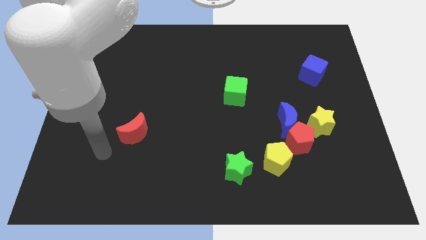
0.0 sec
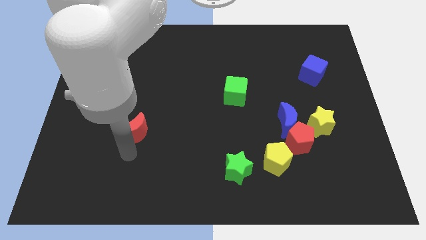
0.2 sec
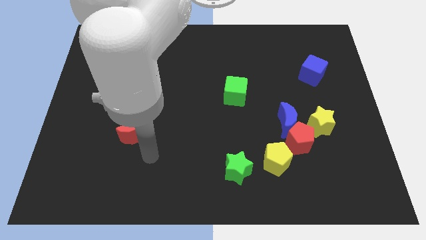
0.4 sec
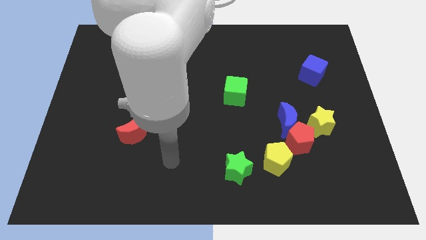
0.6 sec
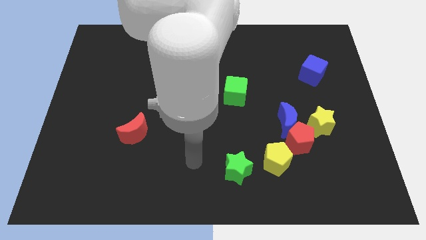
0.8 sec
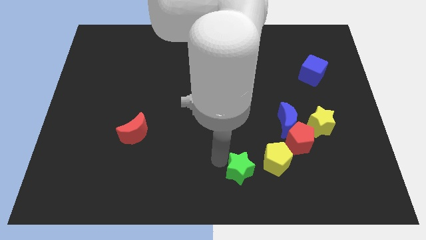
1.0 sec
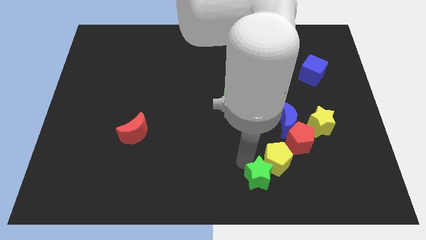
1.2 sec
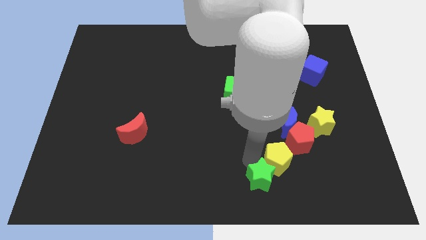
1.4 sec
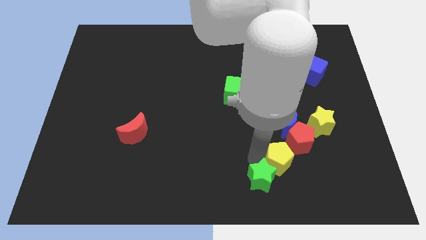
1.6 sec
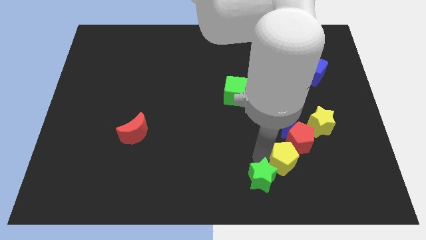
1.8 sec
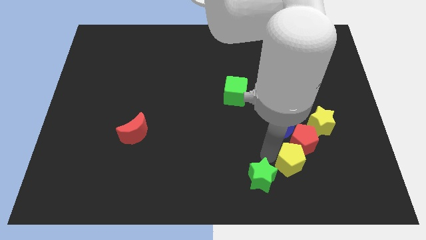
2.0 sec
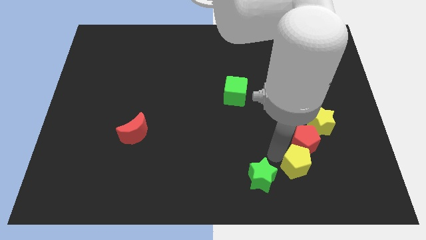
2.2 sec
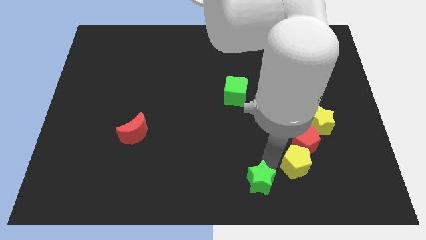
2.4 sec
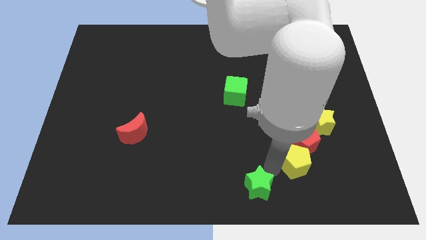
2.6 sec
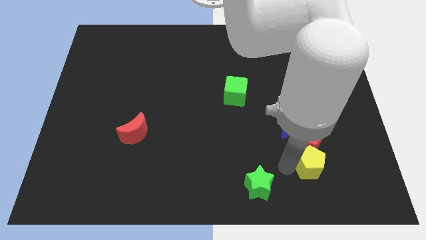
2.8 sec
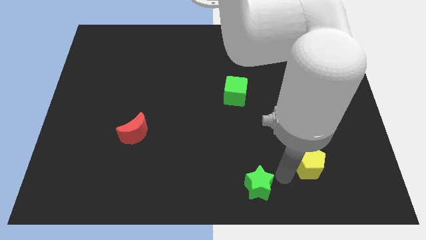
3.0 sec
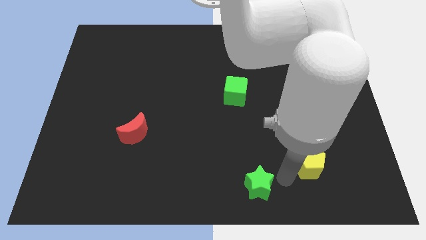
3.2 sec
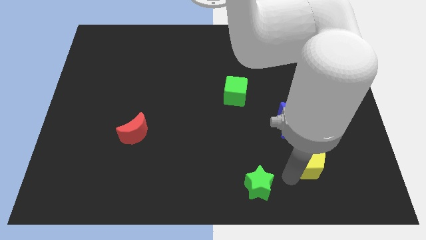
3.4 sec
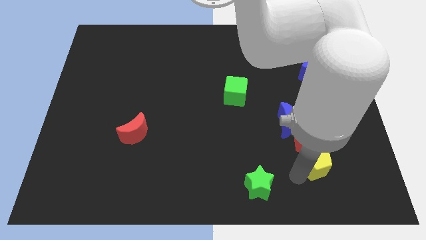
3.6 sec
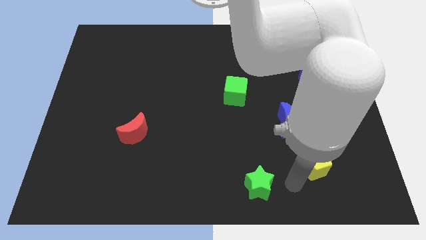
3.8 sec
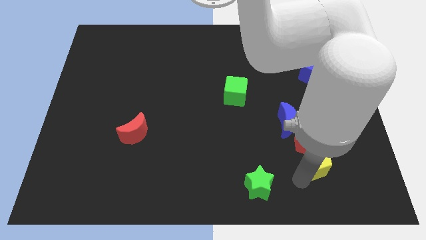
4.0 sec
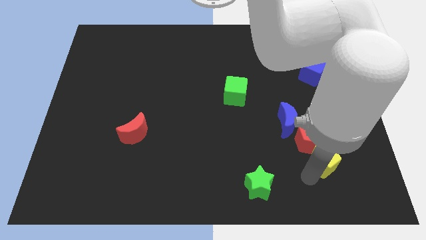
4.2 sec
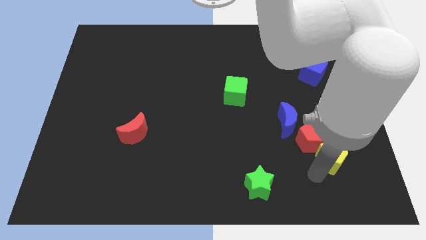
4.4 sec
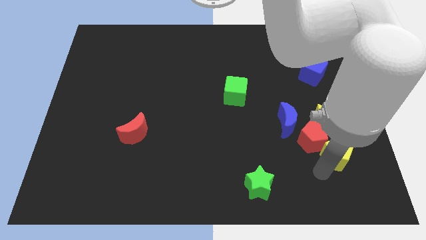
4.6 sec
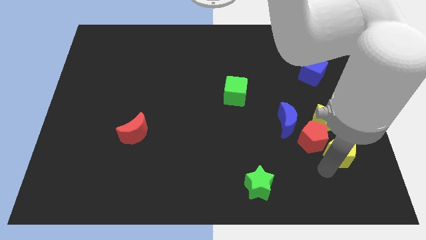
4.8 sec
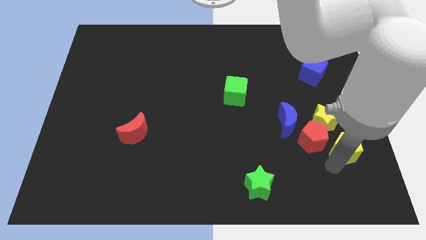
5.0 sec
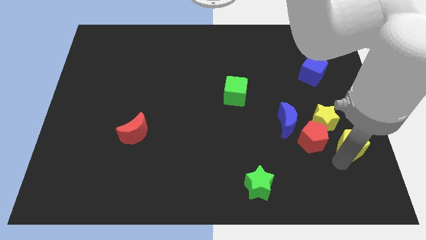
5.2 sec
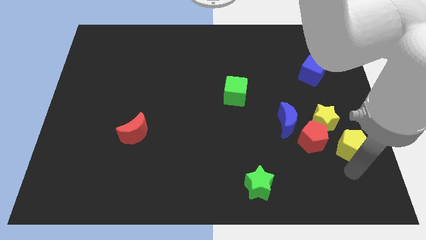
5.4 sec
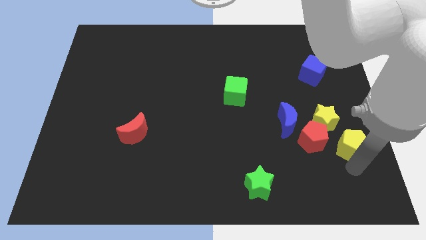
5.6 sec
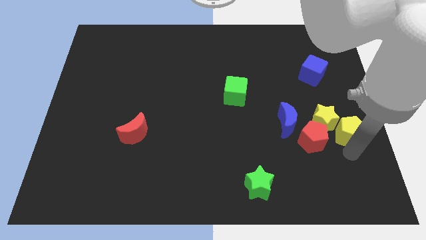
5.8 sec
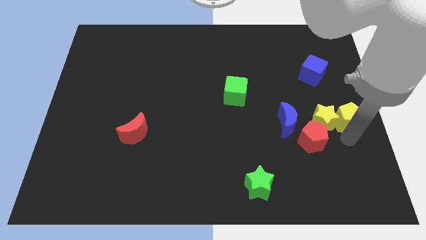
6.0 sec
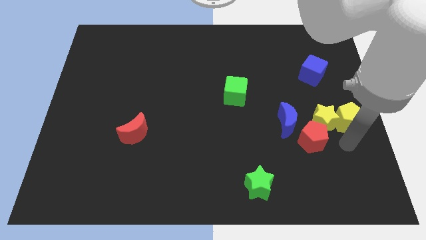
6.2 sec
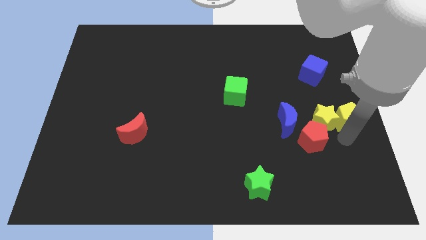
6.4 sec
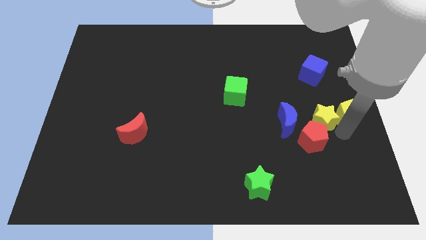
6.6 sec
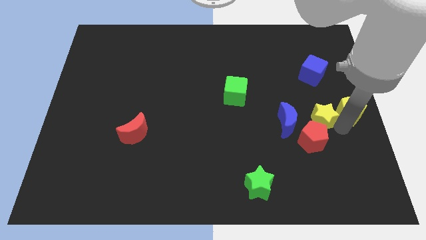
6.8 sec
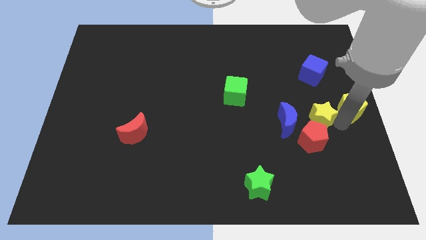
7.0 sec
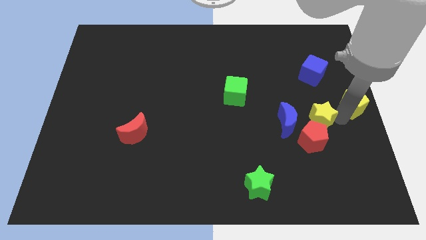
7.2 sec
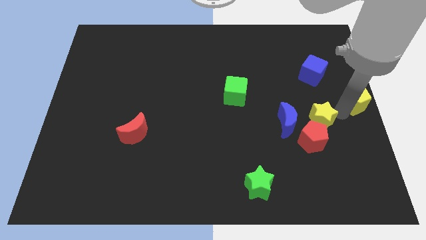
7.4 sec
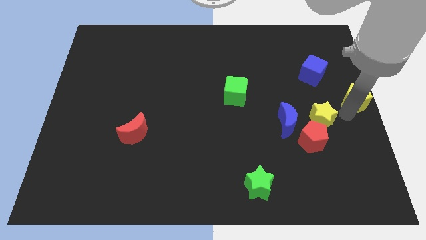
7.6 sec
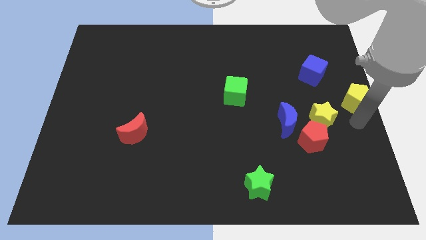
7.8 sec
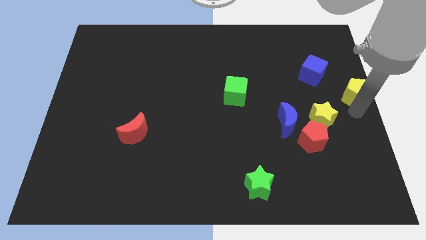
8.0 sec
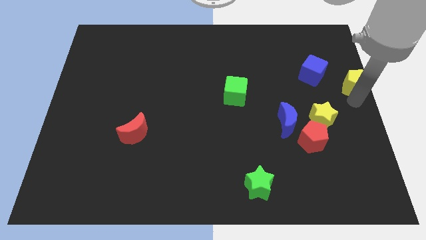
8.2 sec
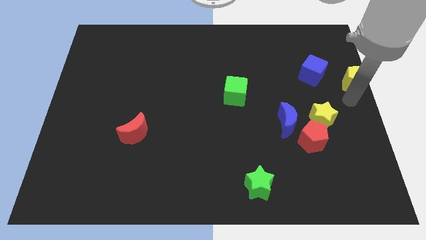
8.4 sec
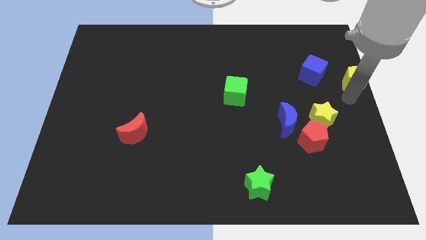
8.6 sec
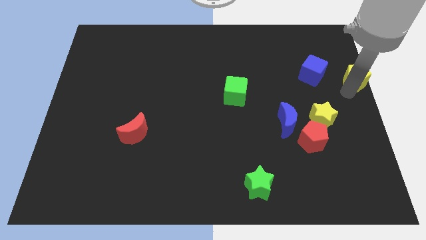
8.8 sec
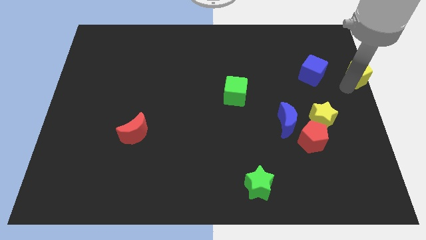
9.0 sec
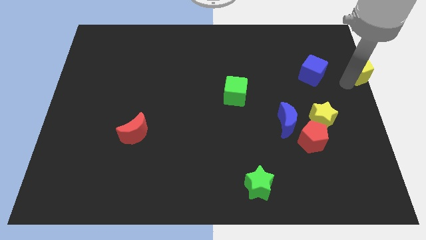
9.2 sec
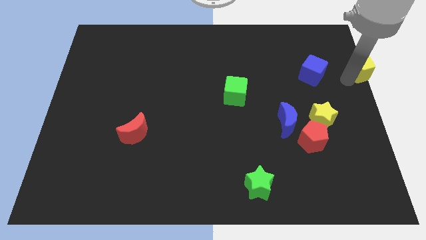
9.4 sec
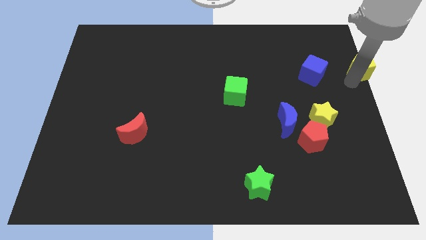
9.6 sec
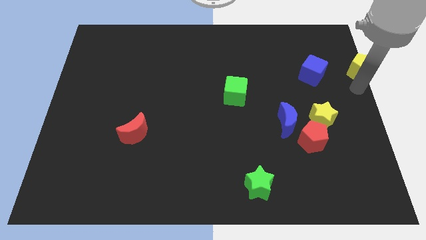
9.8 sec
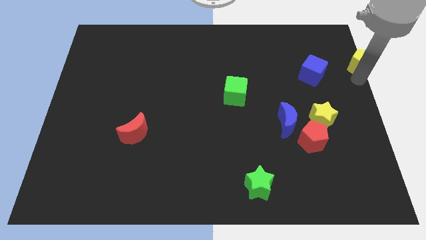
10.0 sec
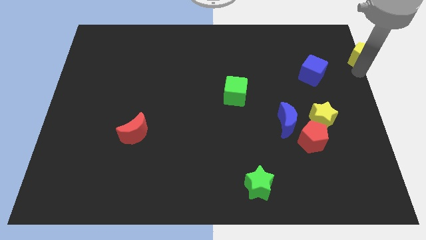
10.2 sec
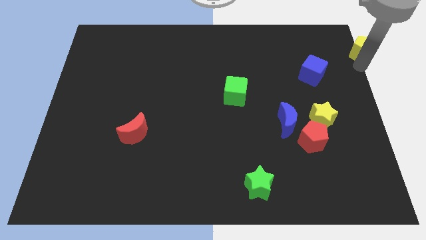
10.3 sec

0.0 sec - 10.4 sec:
put the yellow pentagon to the upper right corner

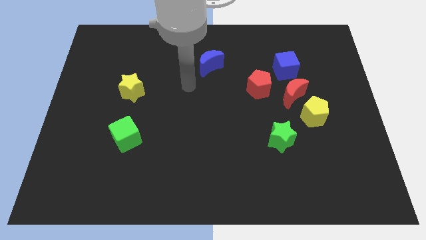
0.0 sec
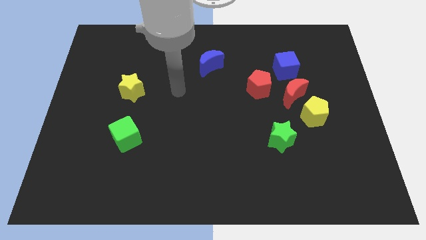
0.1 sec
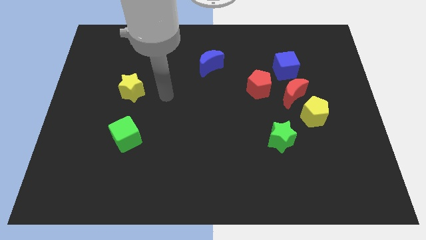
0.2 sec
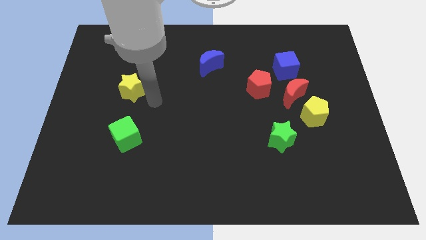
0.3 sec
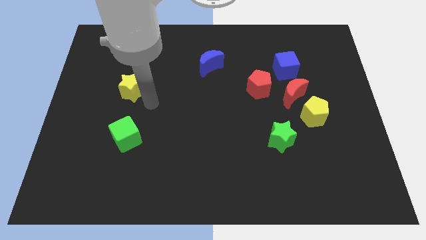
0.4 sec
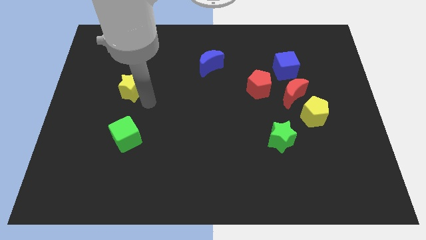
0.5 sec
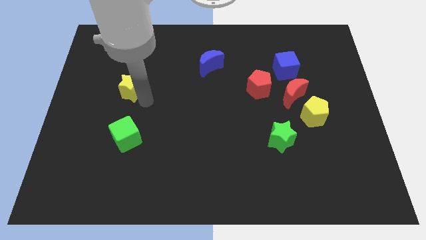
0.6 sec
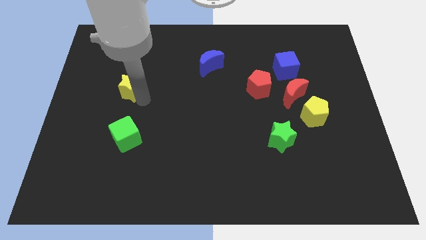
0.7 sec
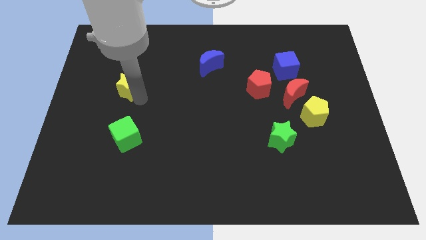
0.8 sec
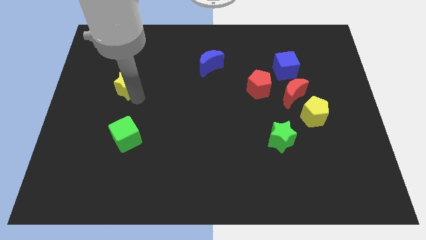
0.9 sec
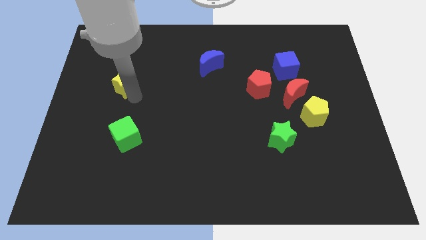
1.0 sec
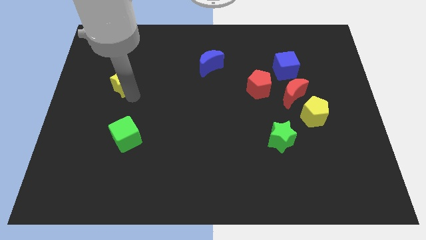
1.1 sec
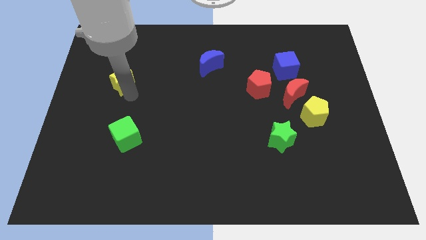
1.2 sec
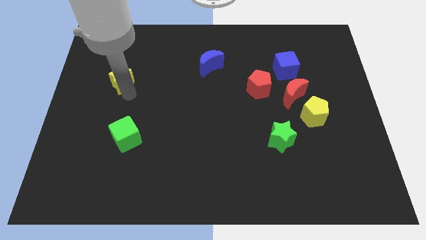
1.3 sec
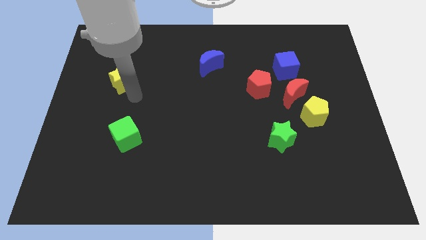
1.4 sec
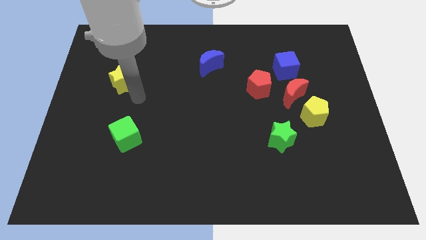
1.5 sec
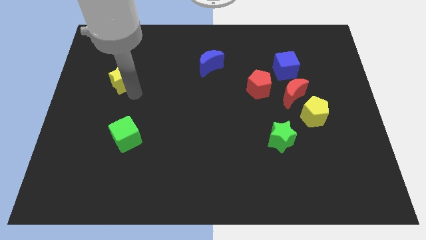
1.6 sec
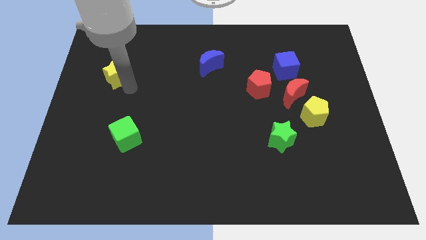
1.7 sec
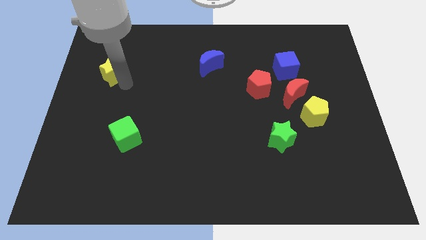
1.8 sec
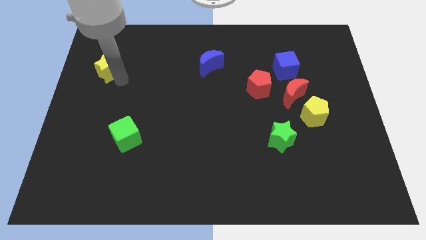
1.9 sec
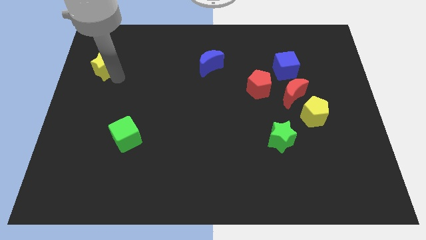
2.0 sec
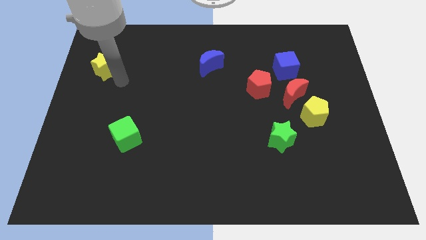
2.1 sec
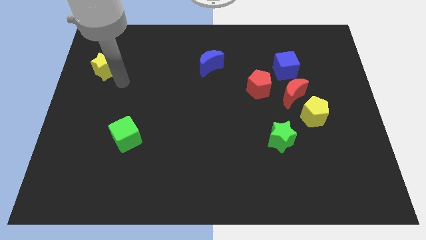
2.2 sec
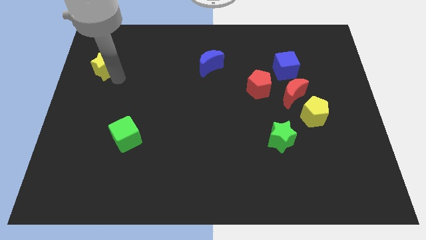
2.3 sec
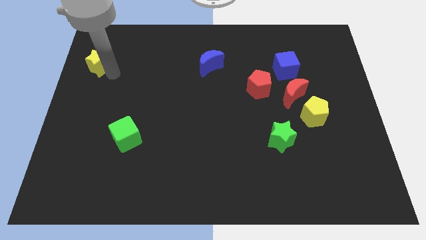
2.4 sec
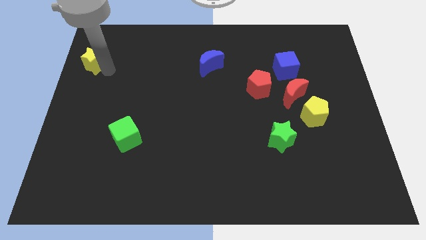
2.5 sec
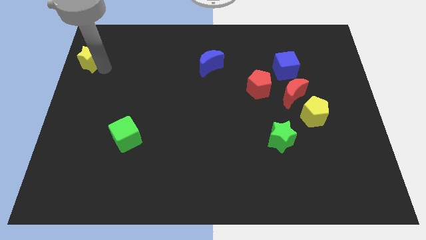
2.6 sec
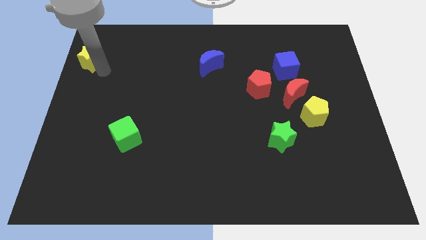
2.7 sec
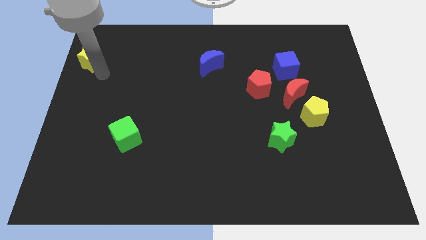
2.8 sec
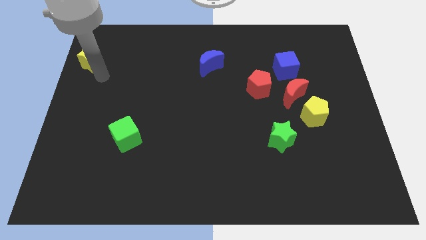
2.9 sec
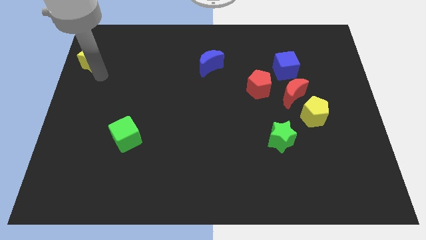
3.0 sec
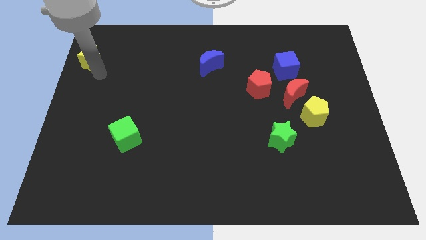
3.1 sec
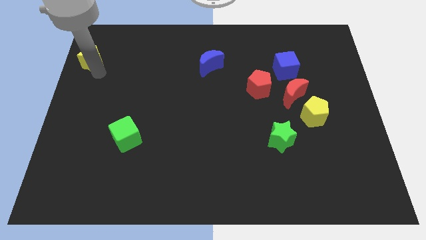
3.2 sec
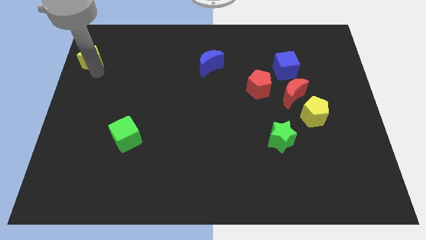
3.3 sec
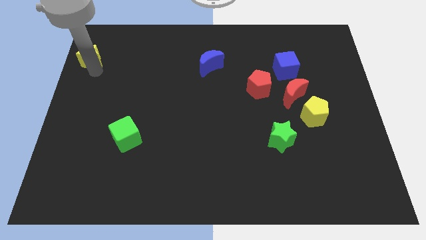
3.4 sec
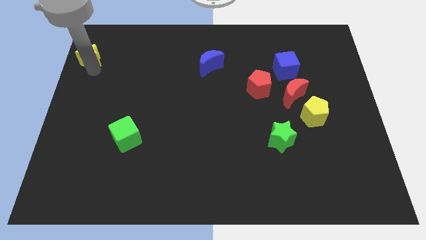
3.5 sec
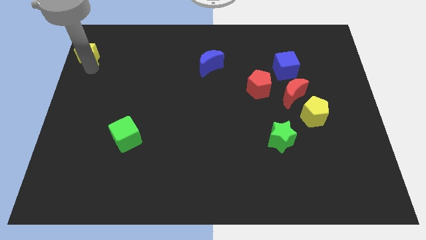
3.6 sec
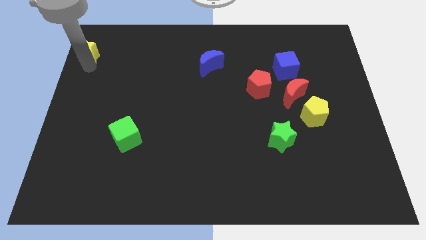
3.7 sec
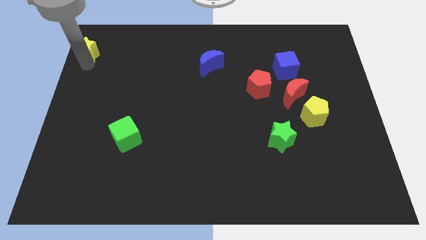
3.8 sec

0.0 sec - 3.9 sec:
slide the yellow star to the top left
